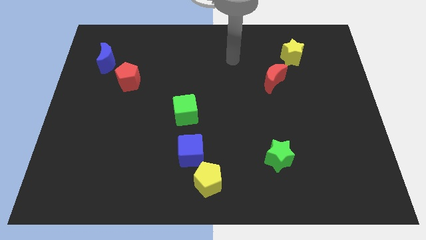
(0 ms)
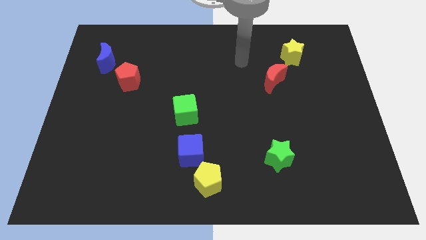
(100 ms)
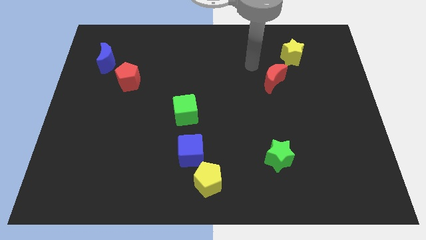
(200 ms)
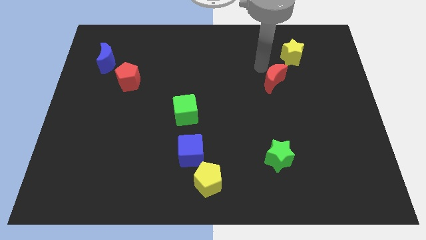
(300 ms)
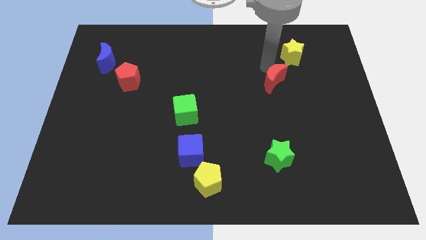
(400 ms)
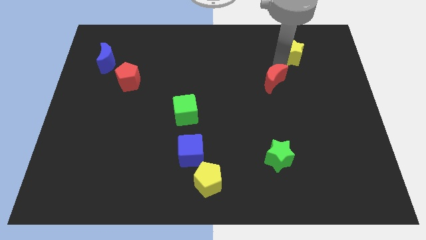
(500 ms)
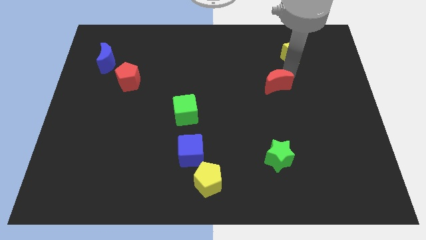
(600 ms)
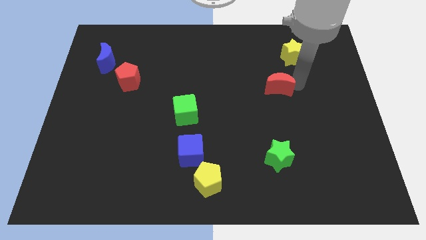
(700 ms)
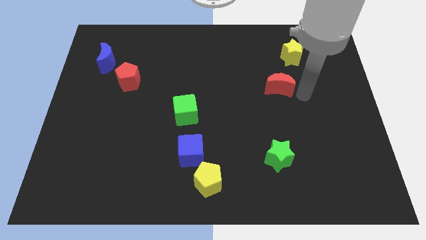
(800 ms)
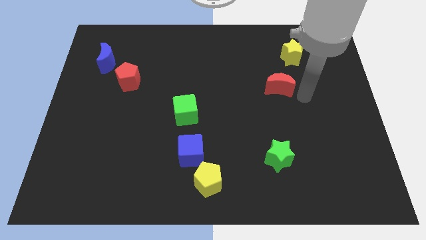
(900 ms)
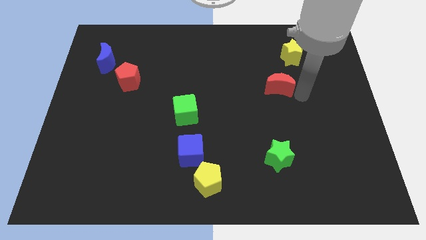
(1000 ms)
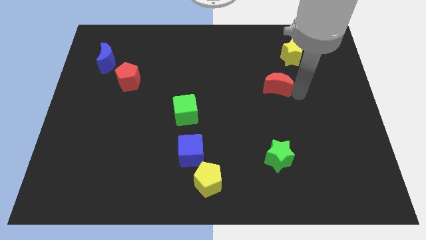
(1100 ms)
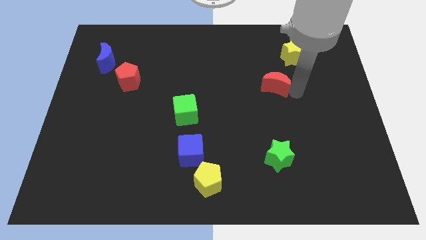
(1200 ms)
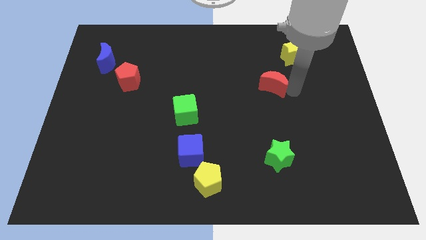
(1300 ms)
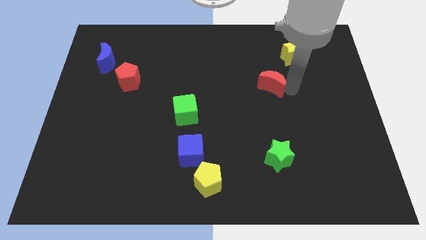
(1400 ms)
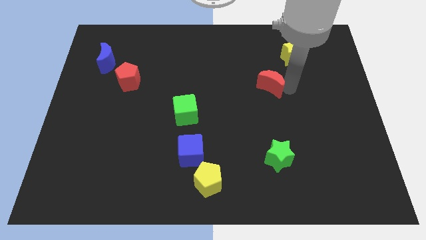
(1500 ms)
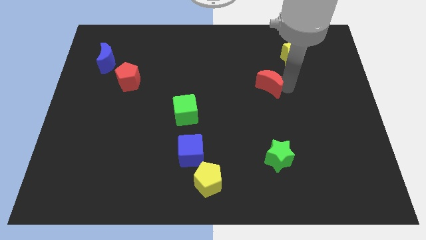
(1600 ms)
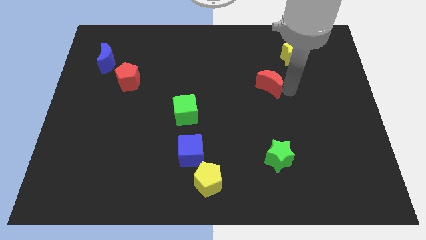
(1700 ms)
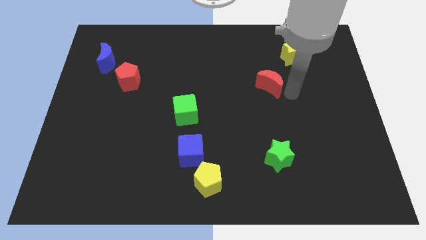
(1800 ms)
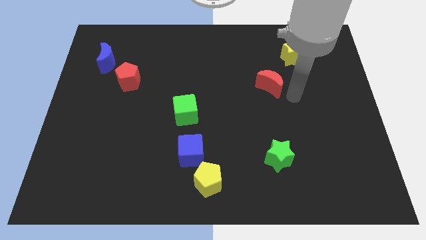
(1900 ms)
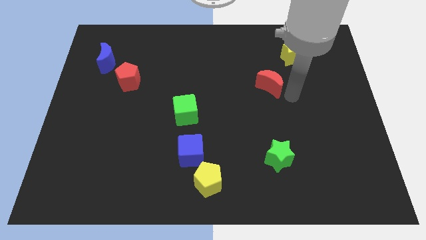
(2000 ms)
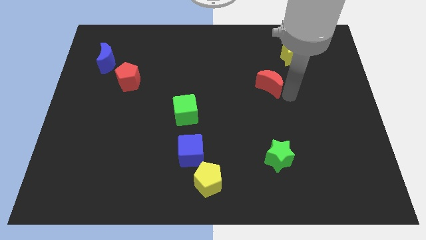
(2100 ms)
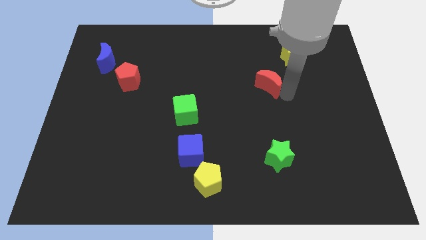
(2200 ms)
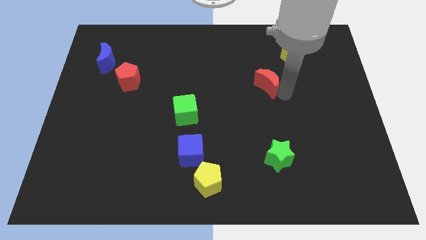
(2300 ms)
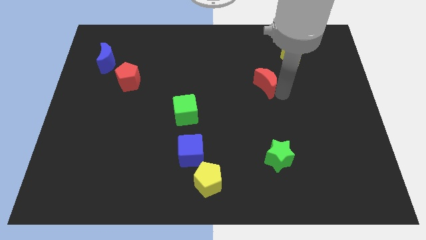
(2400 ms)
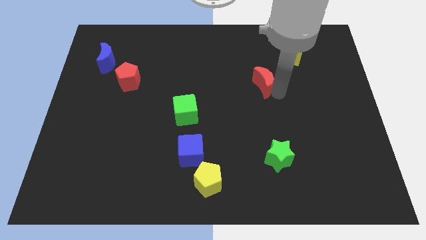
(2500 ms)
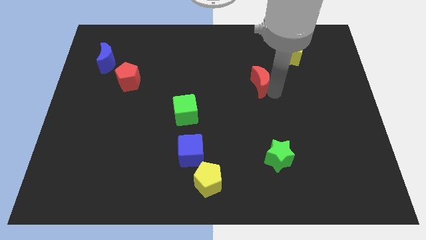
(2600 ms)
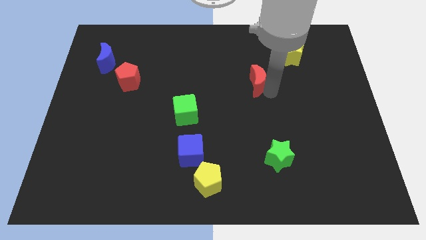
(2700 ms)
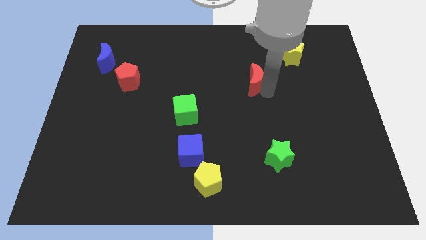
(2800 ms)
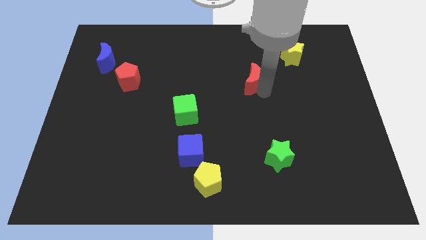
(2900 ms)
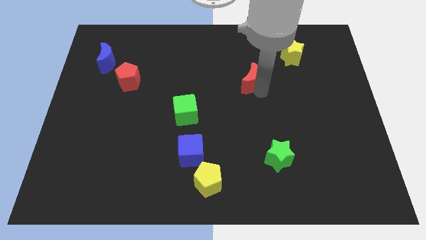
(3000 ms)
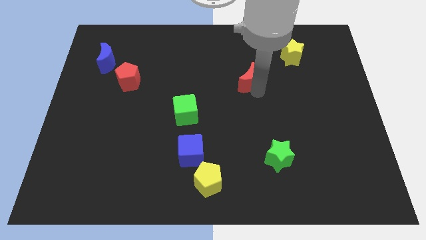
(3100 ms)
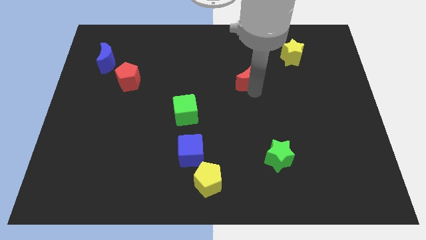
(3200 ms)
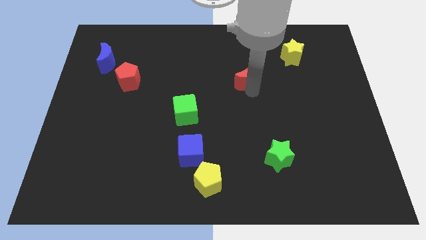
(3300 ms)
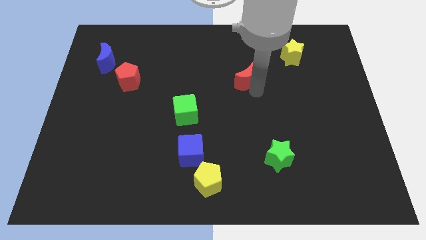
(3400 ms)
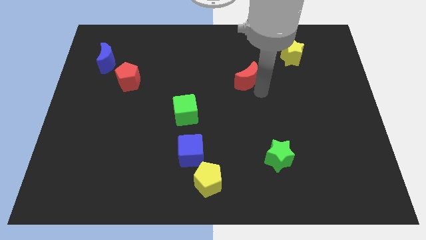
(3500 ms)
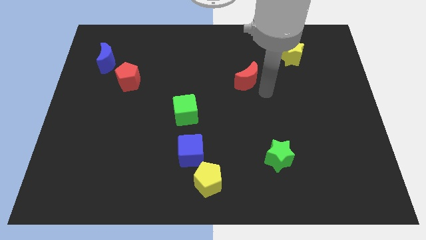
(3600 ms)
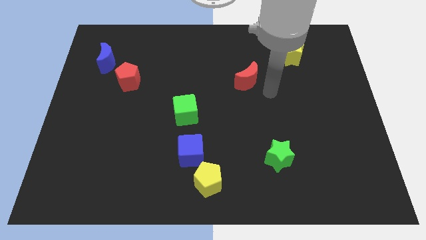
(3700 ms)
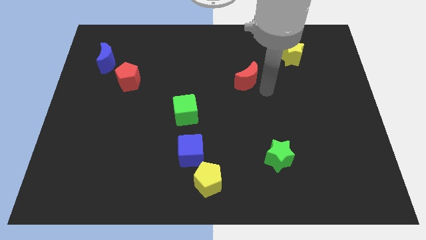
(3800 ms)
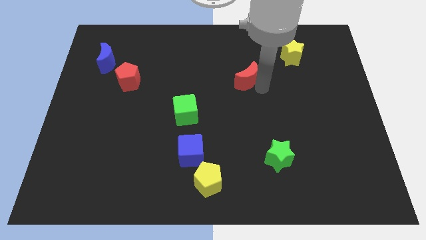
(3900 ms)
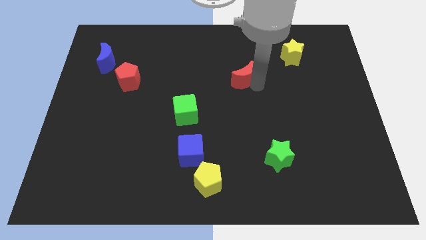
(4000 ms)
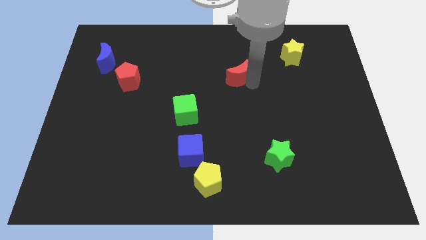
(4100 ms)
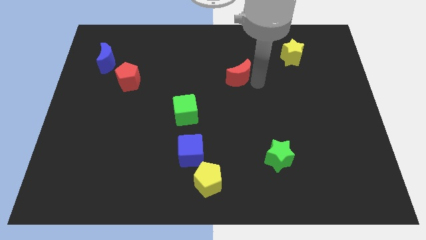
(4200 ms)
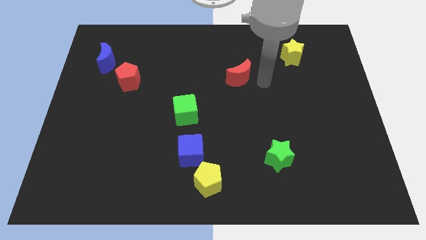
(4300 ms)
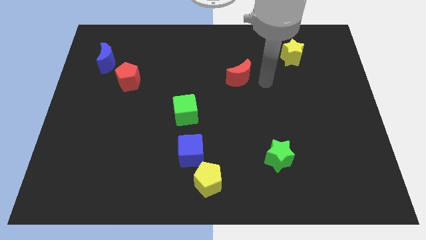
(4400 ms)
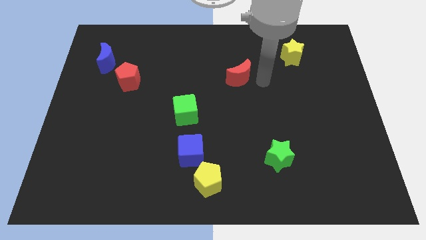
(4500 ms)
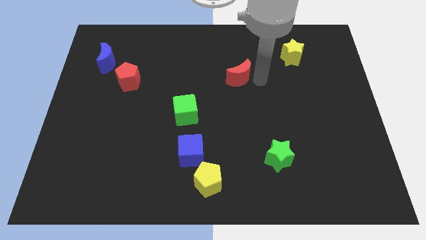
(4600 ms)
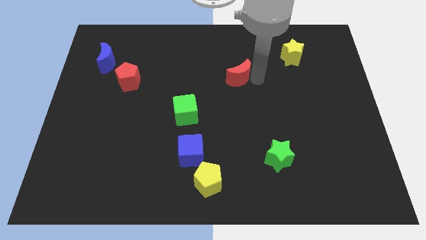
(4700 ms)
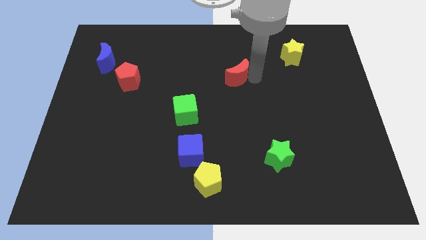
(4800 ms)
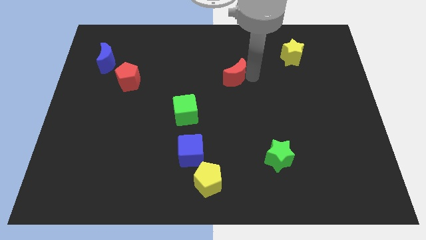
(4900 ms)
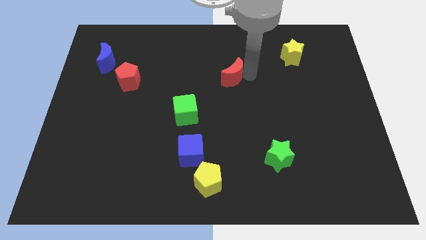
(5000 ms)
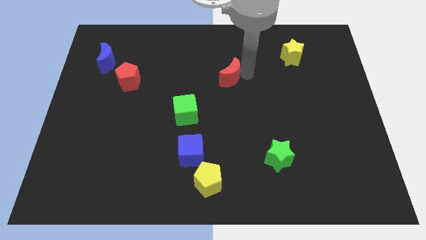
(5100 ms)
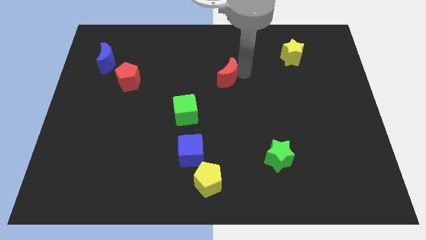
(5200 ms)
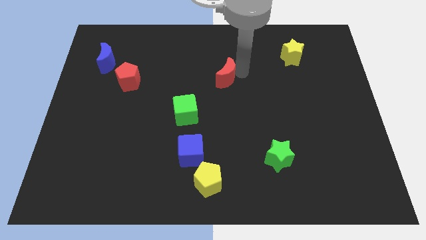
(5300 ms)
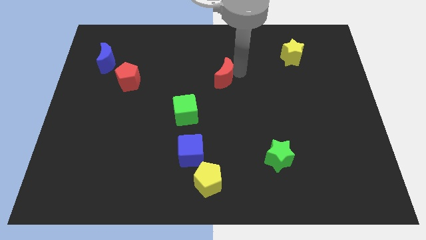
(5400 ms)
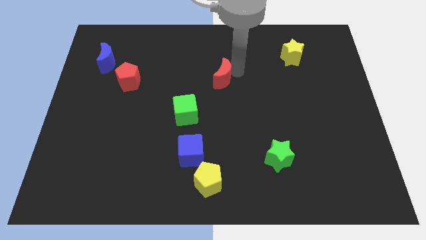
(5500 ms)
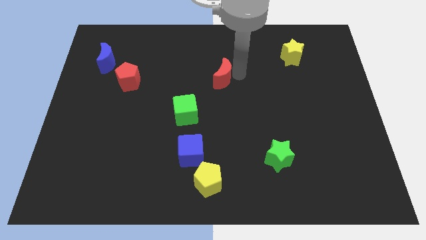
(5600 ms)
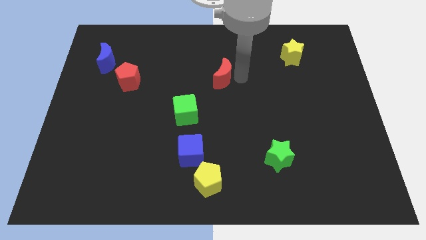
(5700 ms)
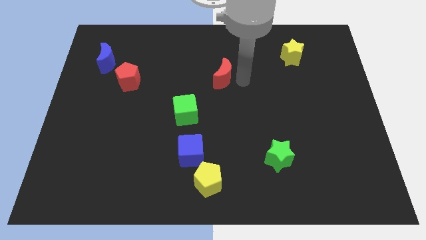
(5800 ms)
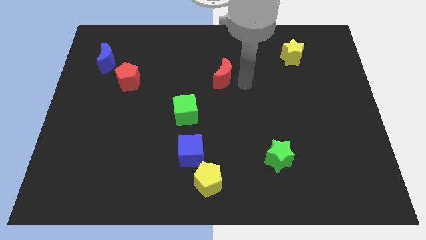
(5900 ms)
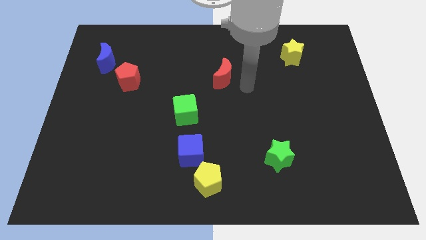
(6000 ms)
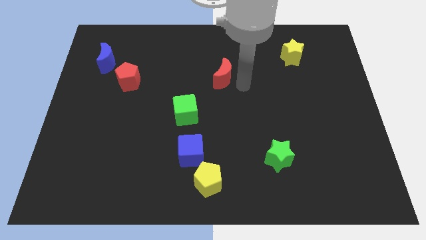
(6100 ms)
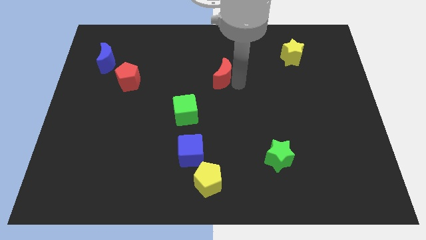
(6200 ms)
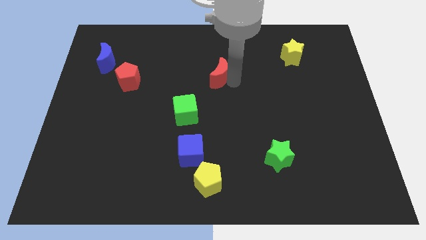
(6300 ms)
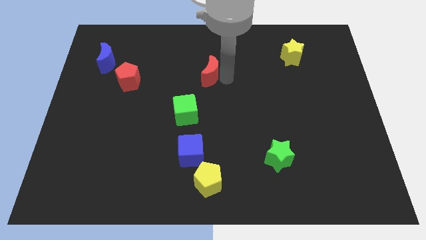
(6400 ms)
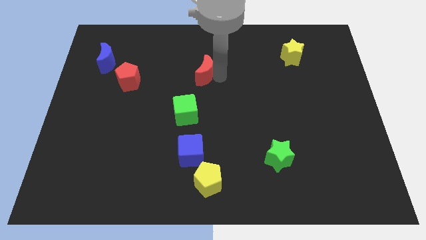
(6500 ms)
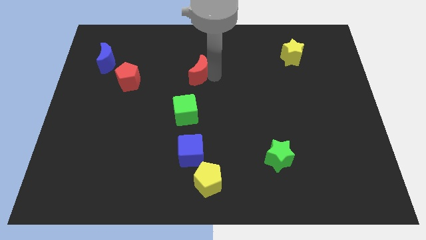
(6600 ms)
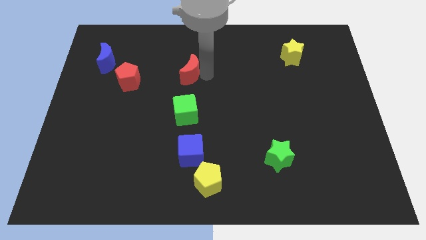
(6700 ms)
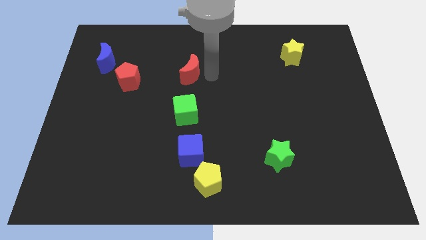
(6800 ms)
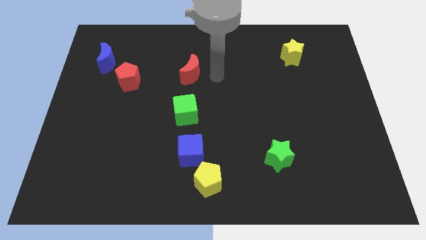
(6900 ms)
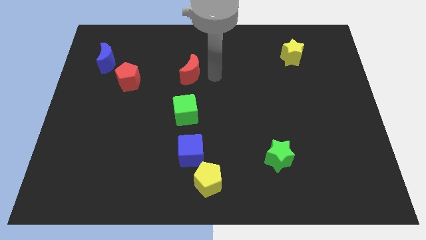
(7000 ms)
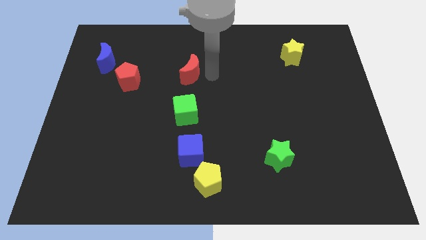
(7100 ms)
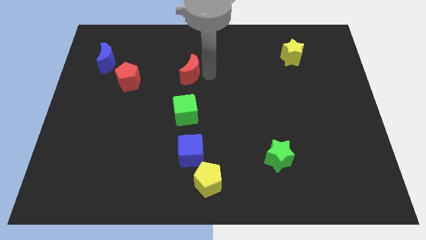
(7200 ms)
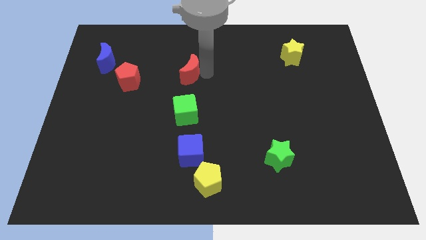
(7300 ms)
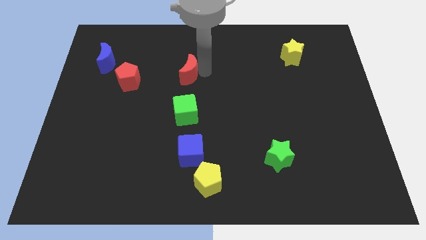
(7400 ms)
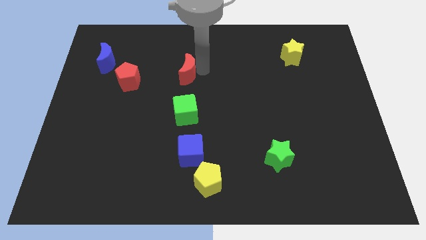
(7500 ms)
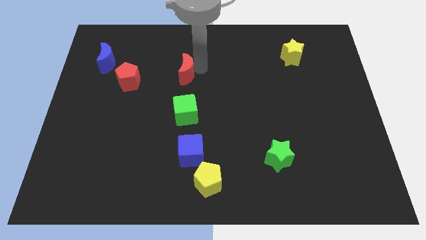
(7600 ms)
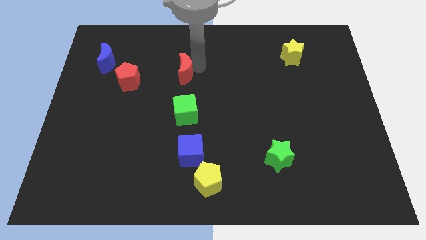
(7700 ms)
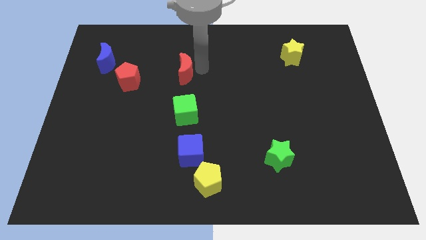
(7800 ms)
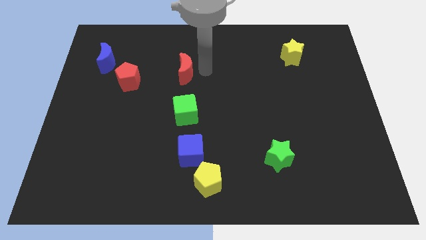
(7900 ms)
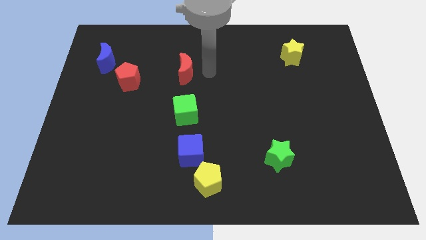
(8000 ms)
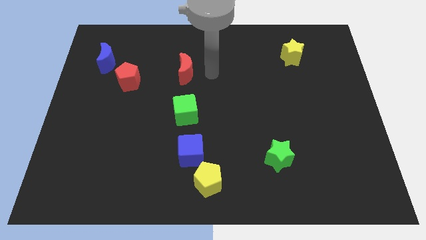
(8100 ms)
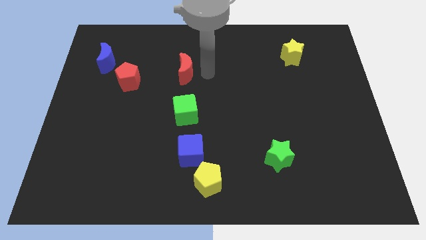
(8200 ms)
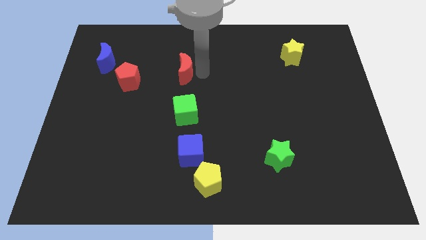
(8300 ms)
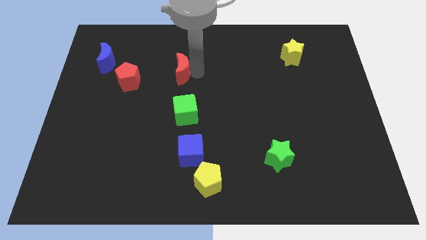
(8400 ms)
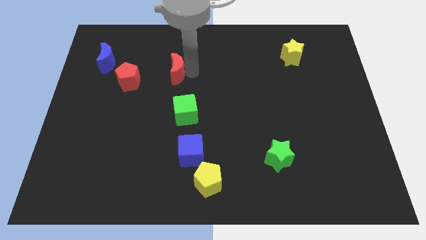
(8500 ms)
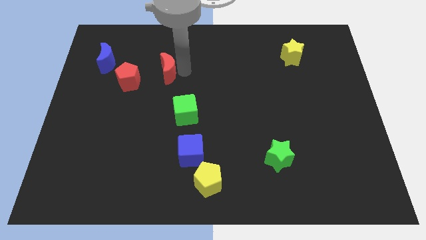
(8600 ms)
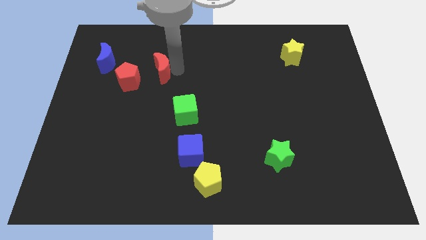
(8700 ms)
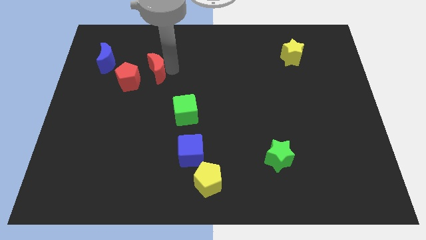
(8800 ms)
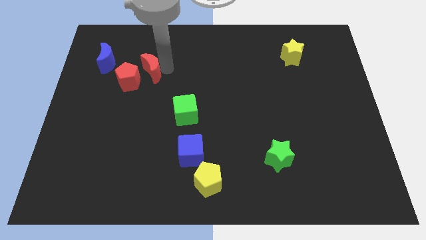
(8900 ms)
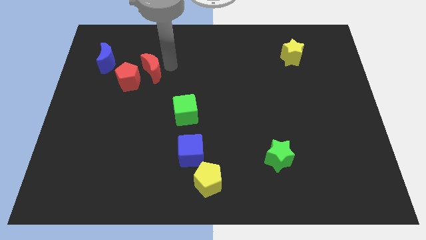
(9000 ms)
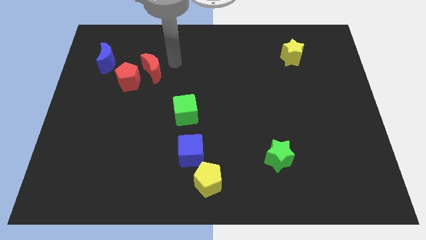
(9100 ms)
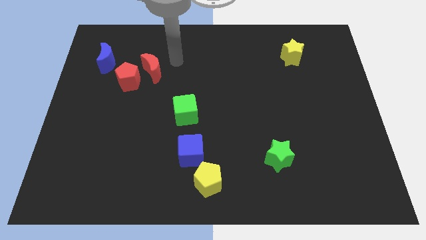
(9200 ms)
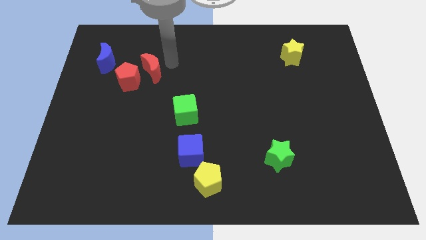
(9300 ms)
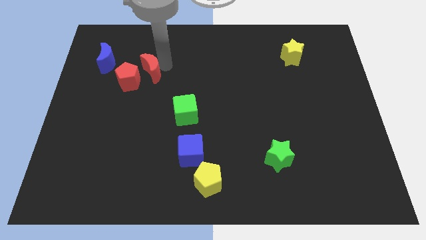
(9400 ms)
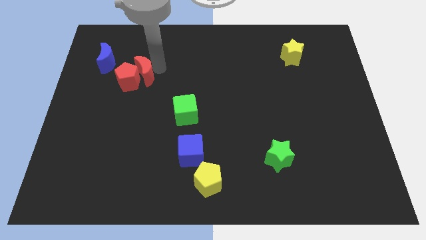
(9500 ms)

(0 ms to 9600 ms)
push the red moon next to the red pentagon
